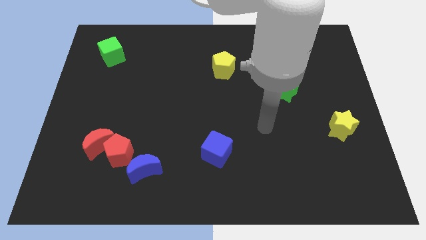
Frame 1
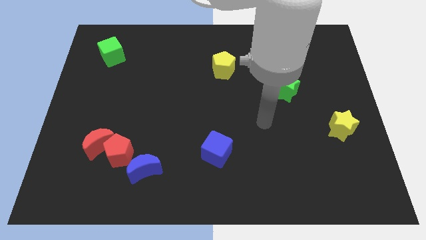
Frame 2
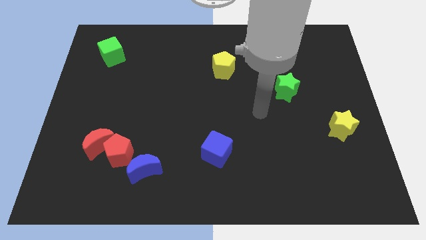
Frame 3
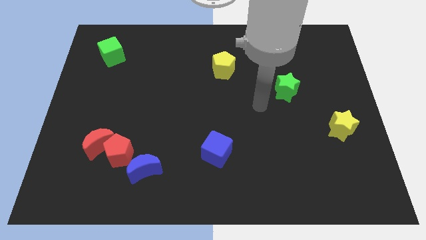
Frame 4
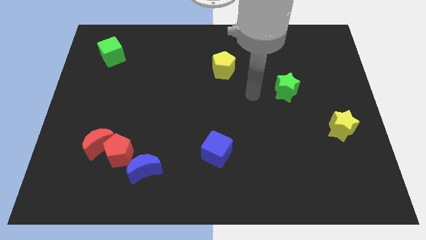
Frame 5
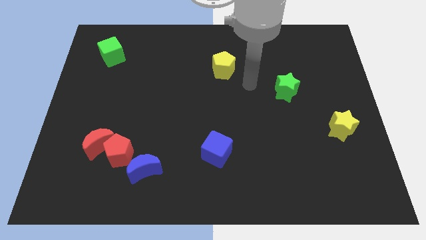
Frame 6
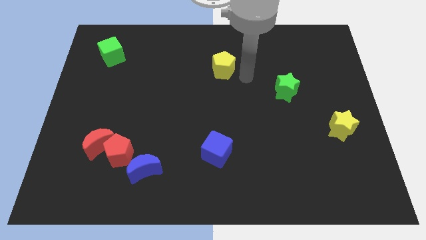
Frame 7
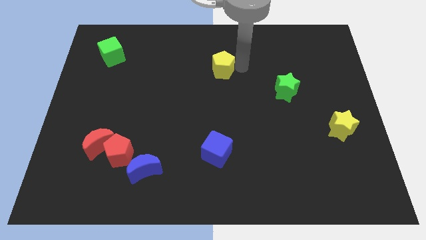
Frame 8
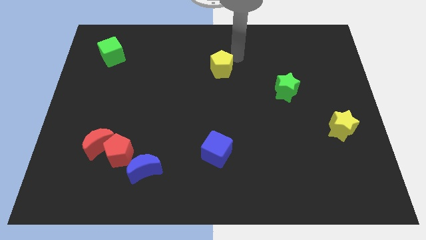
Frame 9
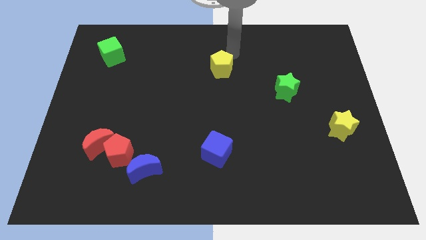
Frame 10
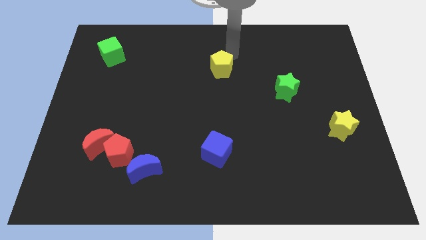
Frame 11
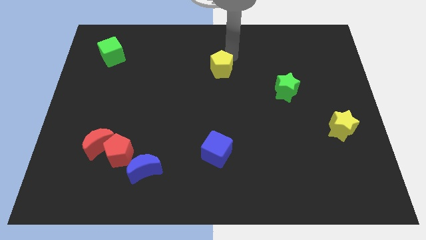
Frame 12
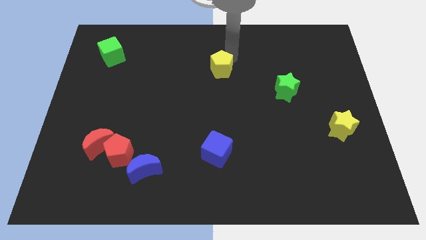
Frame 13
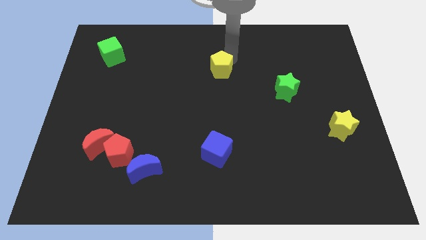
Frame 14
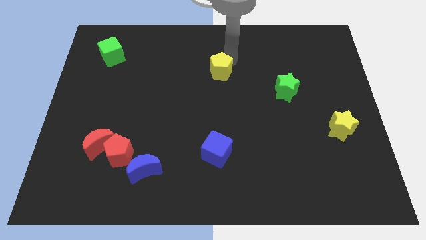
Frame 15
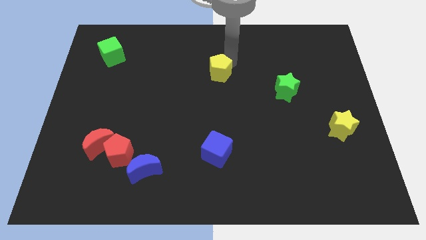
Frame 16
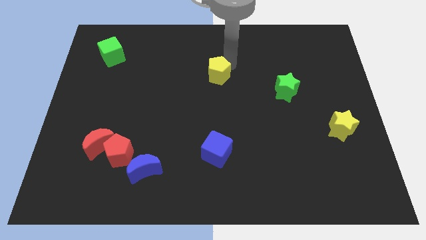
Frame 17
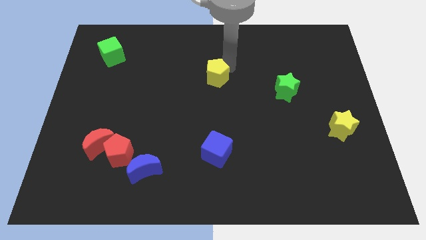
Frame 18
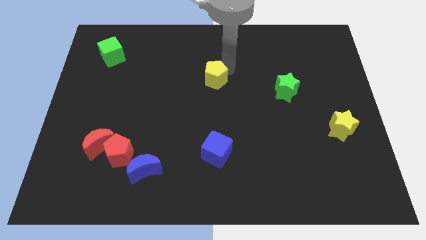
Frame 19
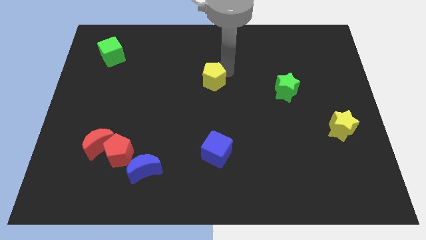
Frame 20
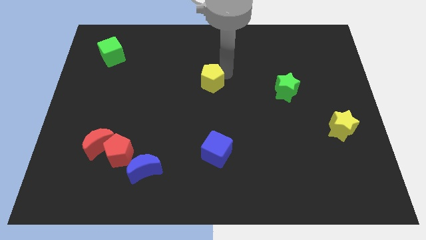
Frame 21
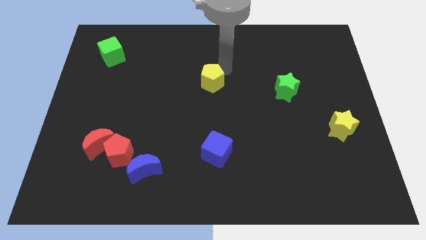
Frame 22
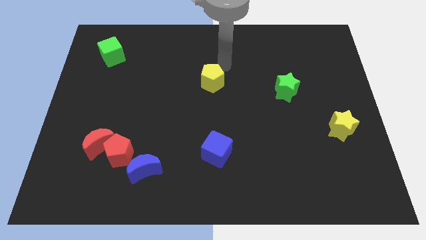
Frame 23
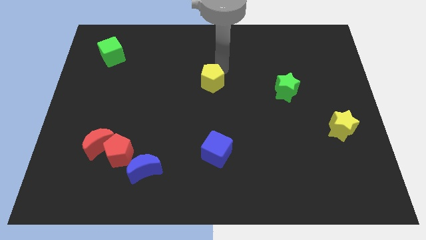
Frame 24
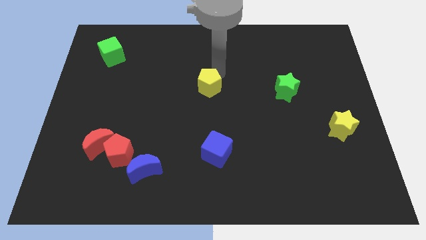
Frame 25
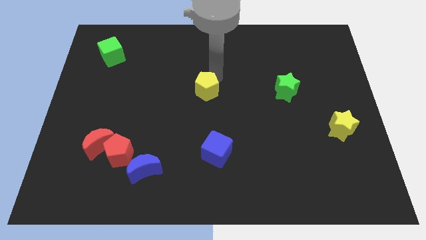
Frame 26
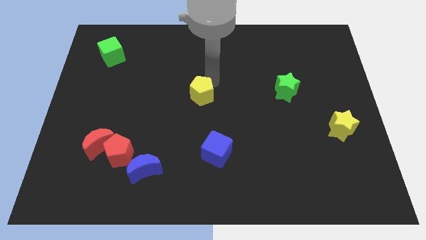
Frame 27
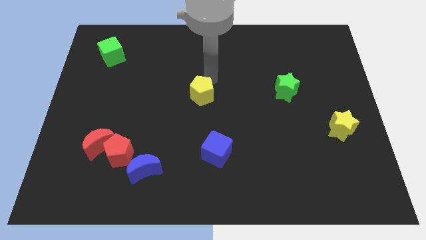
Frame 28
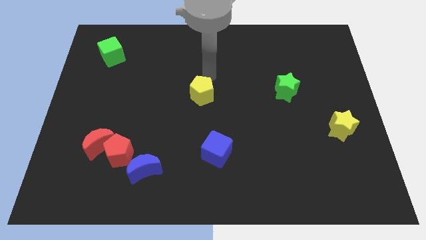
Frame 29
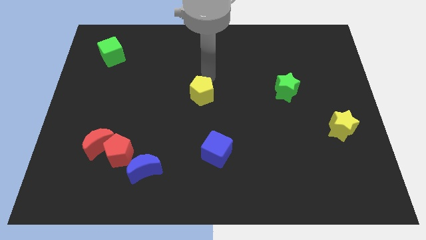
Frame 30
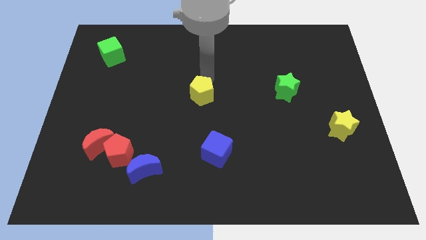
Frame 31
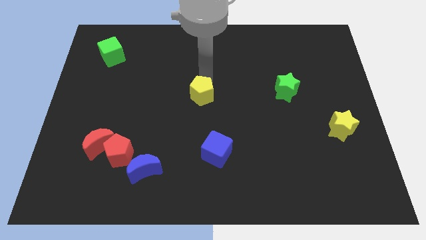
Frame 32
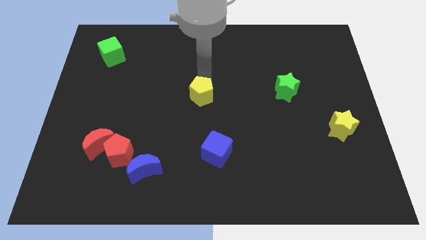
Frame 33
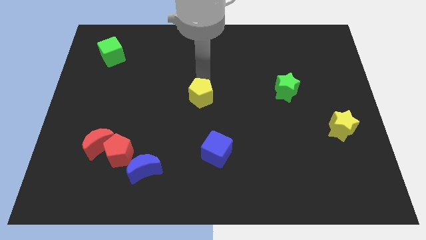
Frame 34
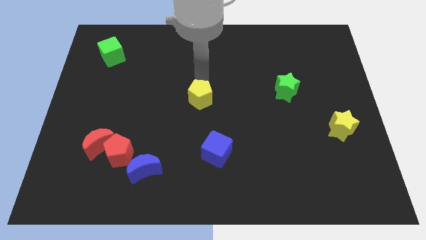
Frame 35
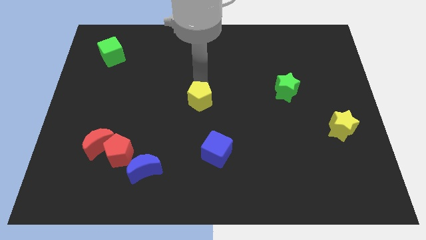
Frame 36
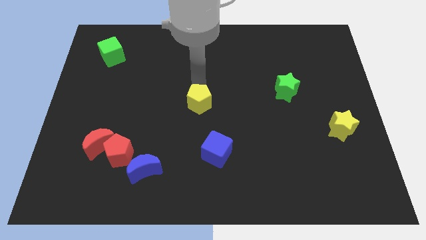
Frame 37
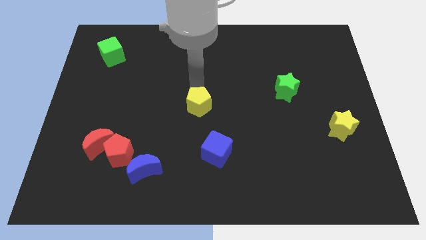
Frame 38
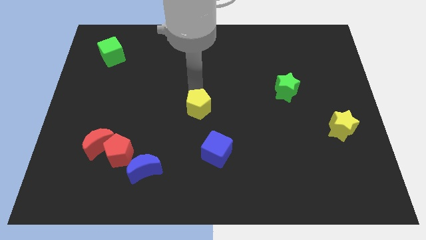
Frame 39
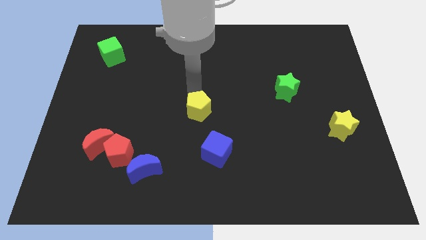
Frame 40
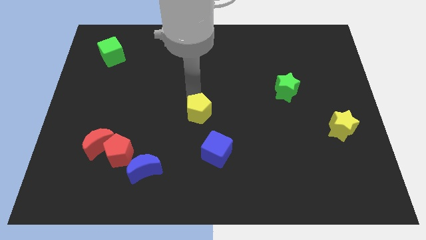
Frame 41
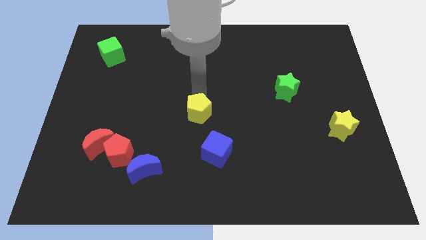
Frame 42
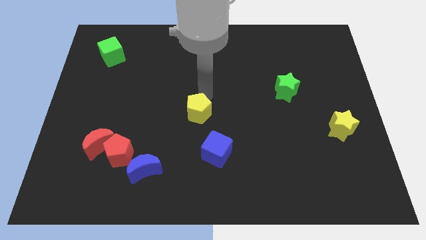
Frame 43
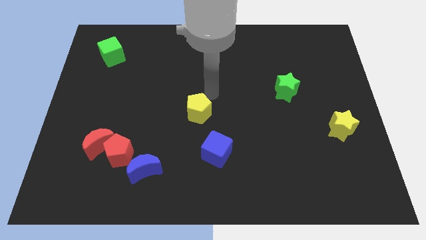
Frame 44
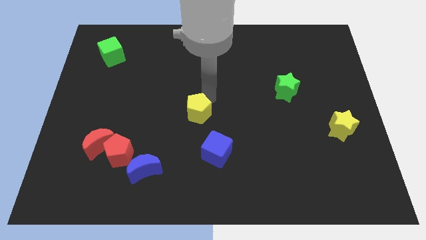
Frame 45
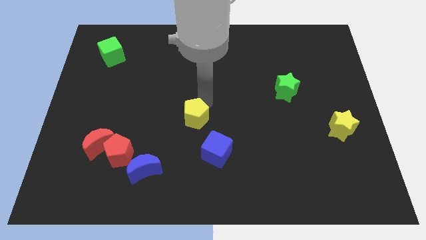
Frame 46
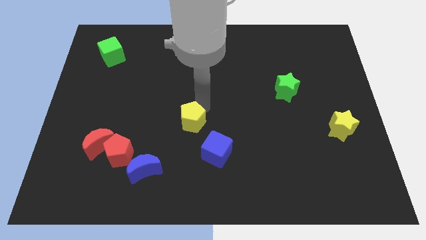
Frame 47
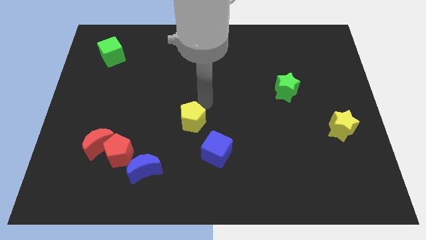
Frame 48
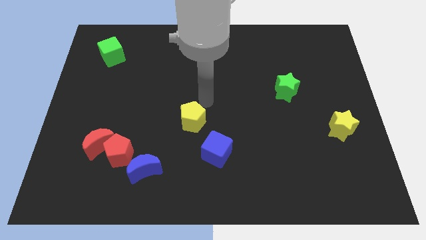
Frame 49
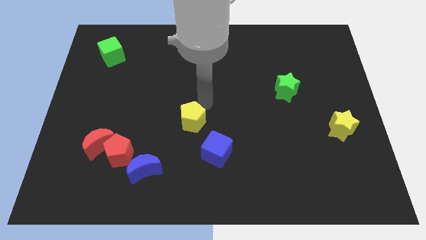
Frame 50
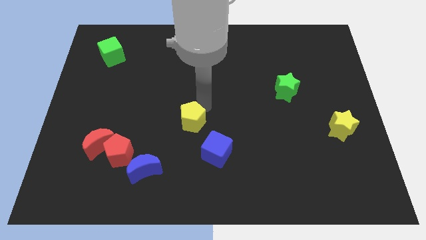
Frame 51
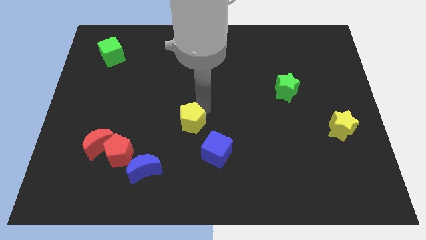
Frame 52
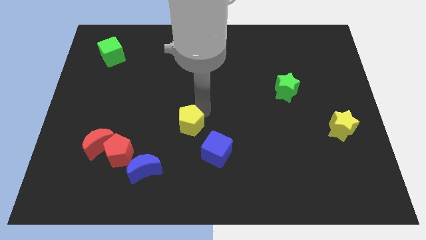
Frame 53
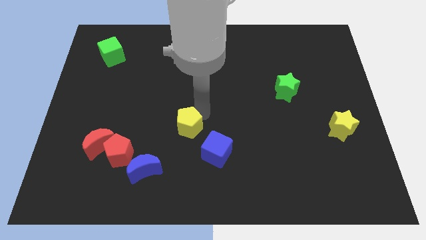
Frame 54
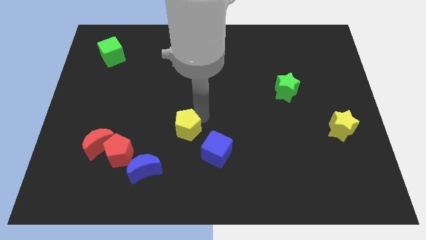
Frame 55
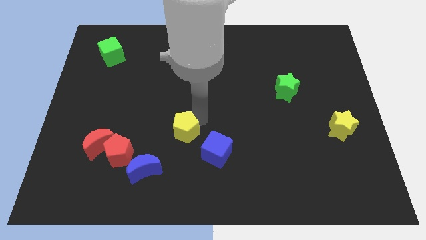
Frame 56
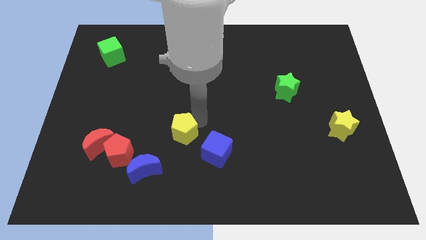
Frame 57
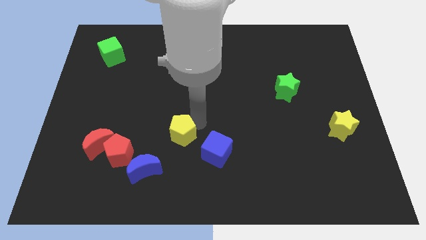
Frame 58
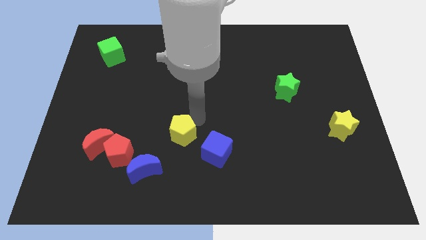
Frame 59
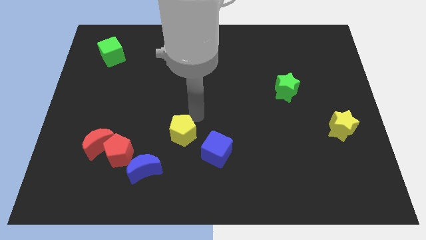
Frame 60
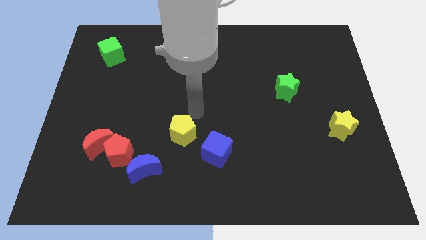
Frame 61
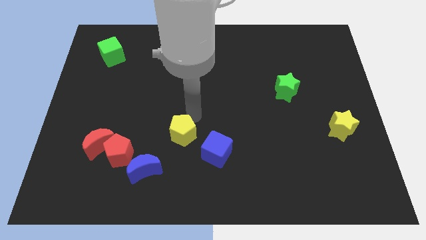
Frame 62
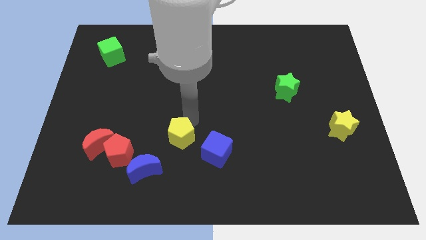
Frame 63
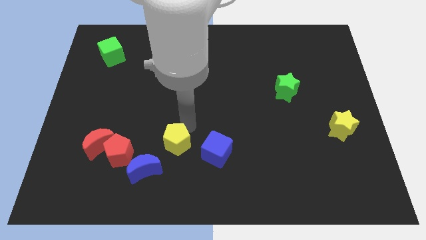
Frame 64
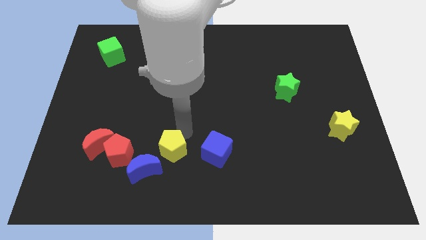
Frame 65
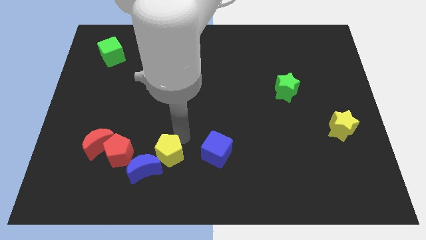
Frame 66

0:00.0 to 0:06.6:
move the yellow pentagon close to the blue moon

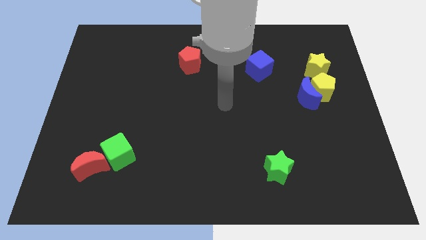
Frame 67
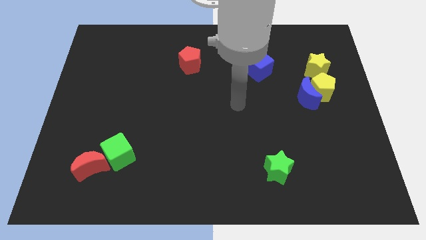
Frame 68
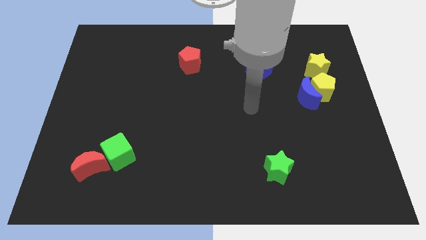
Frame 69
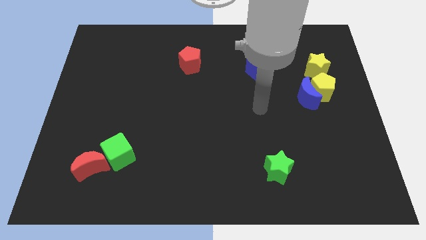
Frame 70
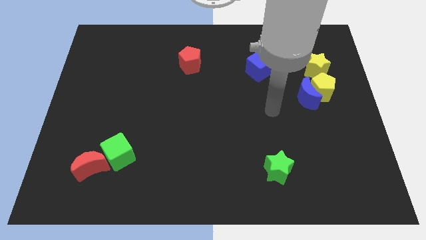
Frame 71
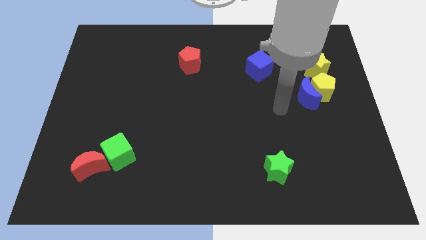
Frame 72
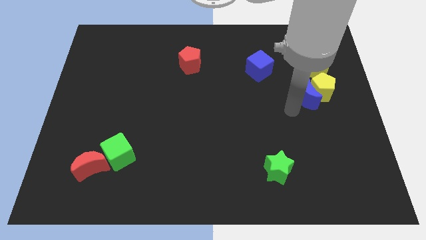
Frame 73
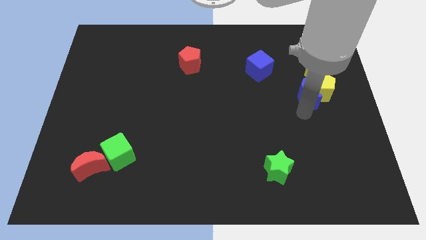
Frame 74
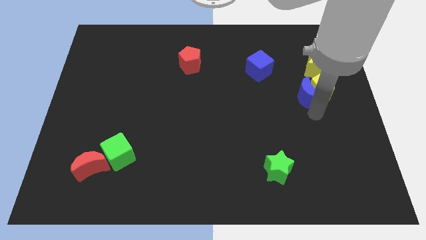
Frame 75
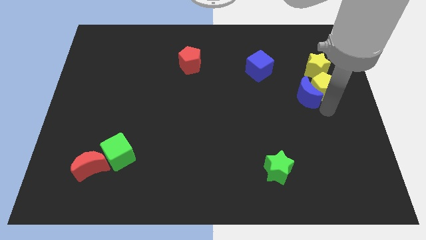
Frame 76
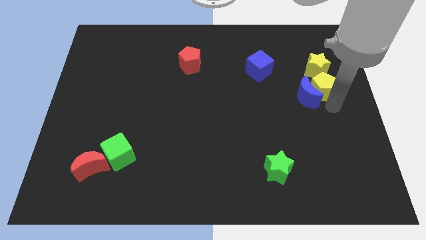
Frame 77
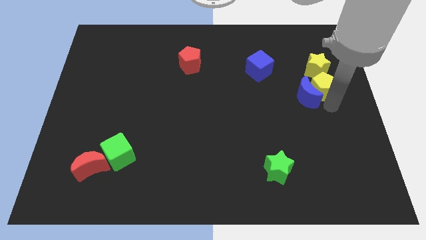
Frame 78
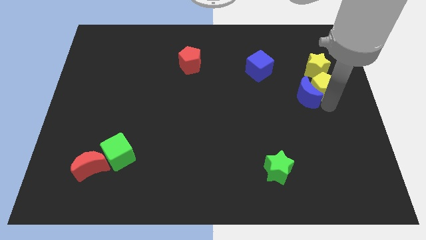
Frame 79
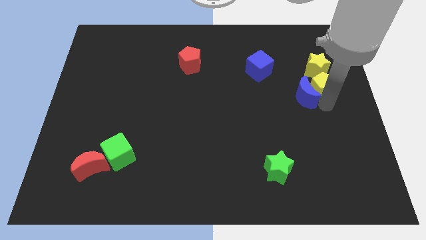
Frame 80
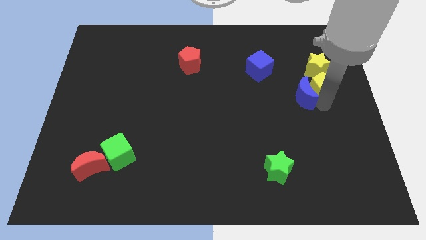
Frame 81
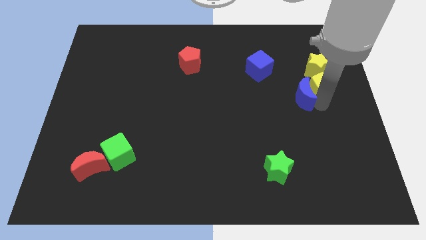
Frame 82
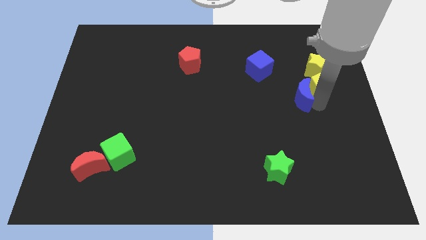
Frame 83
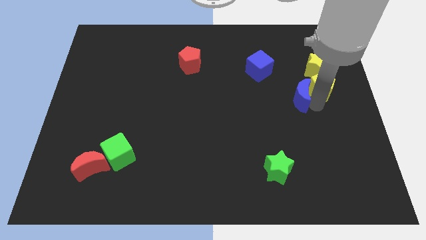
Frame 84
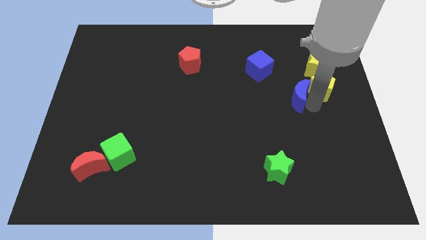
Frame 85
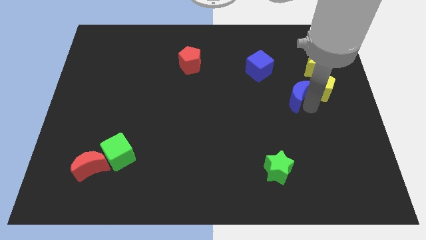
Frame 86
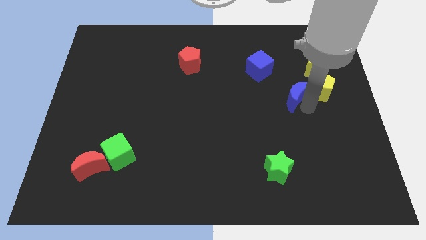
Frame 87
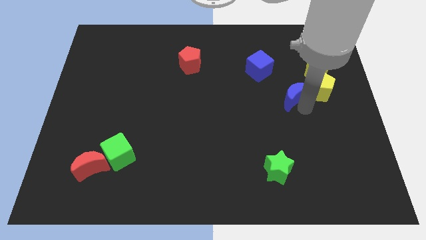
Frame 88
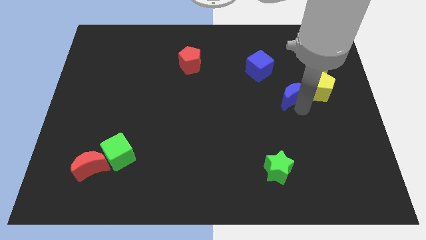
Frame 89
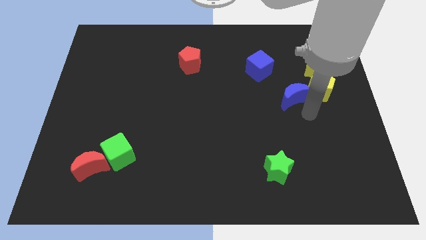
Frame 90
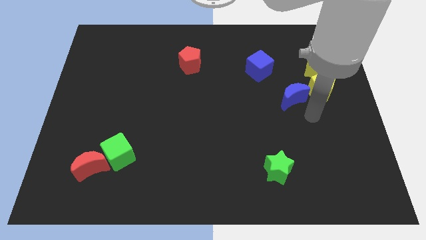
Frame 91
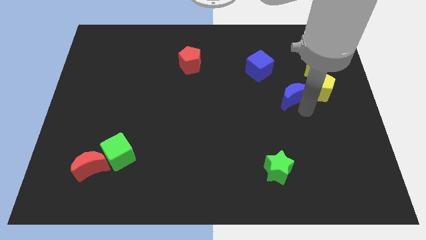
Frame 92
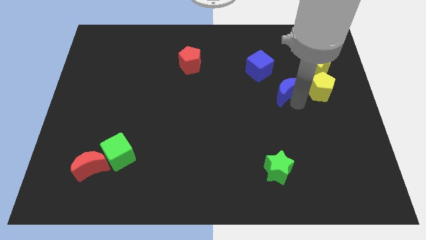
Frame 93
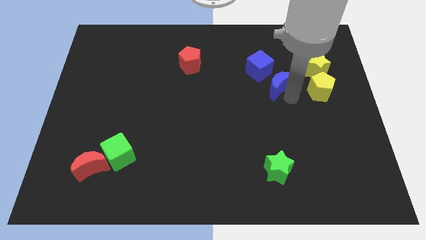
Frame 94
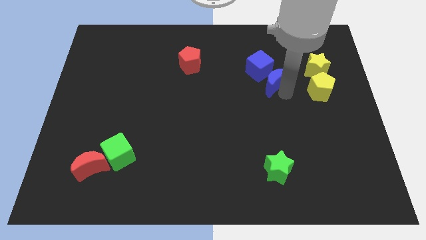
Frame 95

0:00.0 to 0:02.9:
move the blue moon to the blue cube
